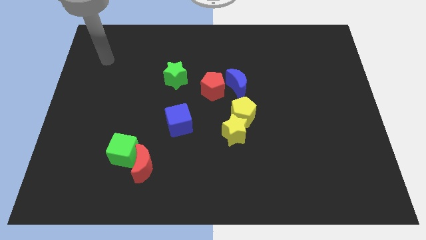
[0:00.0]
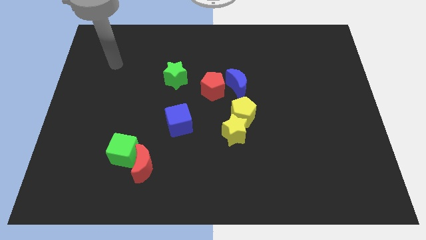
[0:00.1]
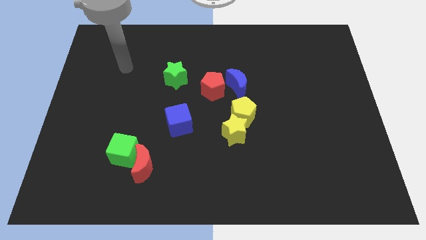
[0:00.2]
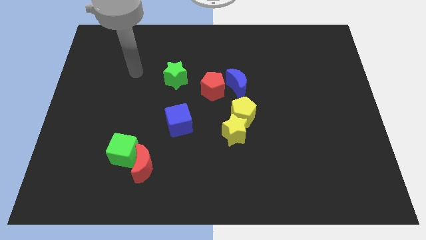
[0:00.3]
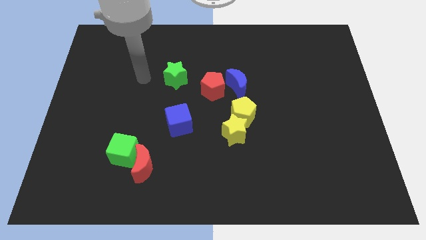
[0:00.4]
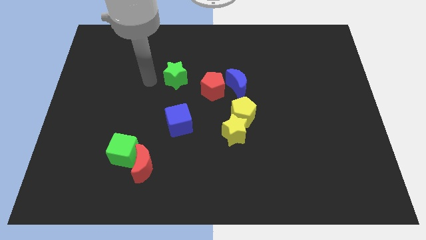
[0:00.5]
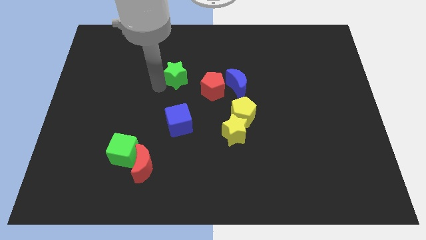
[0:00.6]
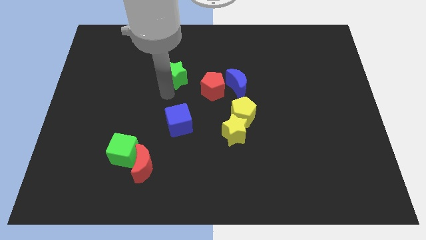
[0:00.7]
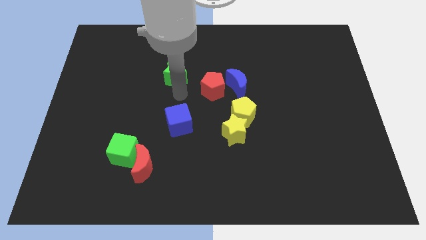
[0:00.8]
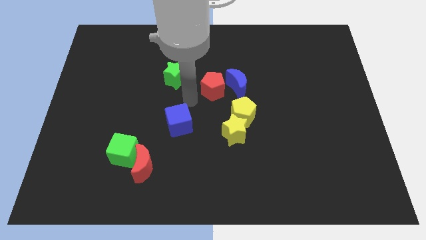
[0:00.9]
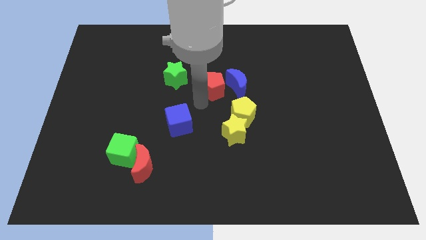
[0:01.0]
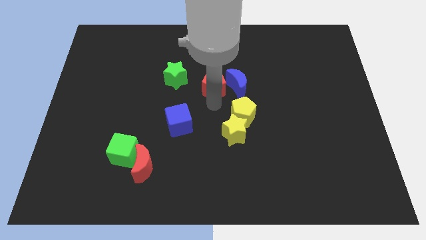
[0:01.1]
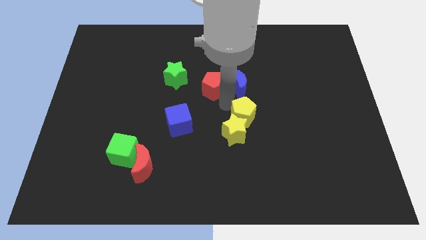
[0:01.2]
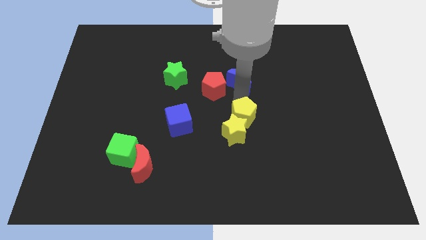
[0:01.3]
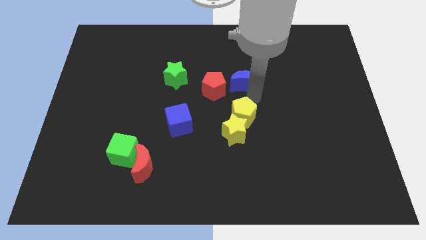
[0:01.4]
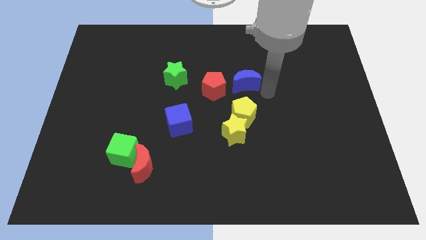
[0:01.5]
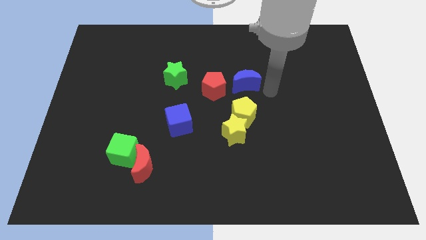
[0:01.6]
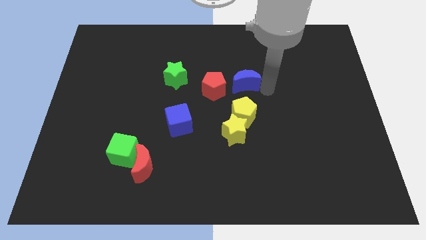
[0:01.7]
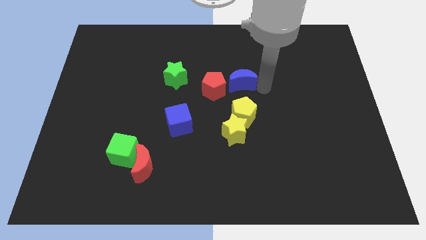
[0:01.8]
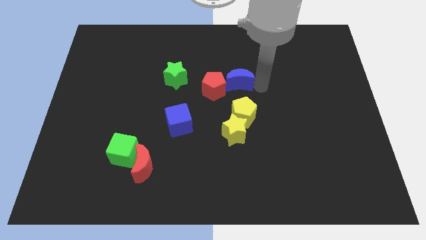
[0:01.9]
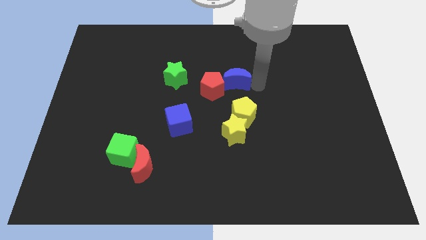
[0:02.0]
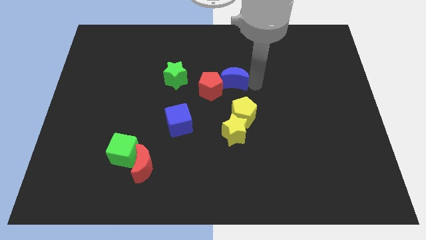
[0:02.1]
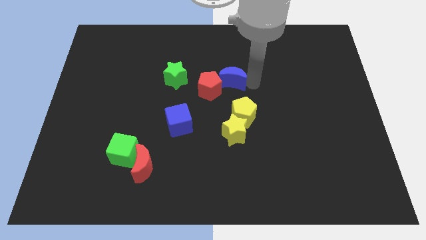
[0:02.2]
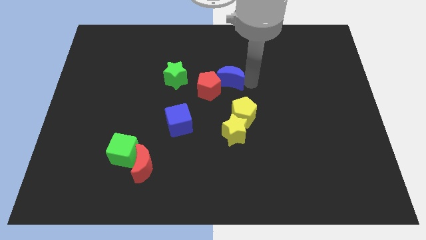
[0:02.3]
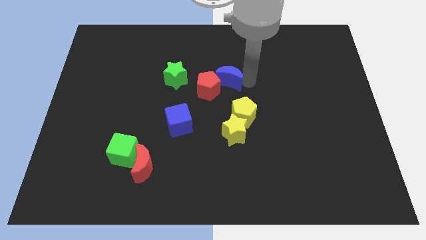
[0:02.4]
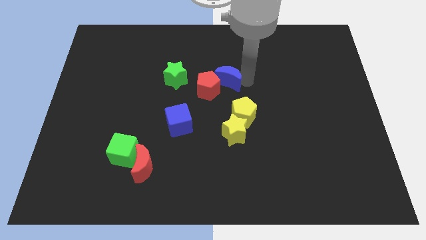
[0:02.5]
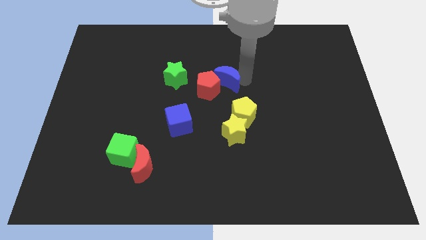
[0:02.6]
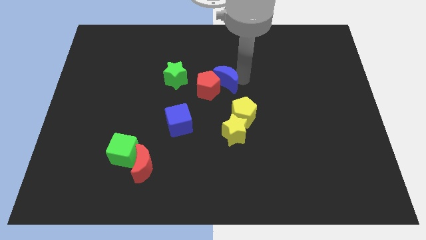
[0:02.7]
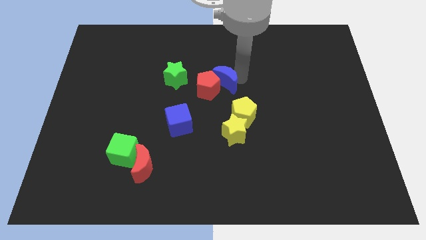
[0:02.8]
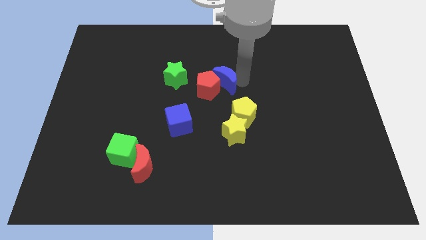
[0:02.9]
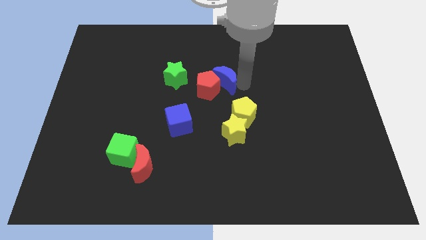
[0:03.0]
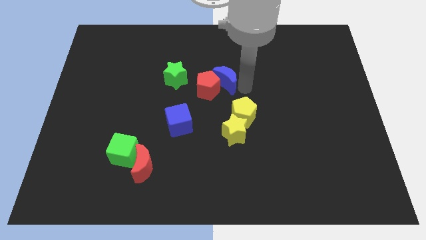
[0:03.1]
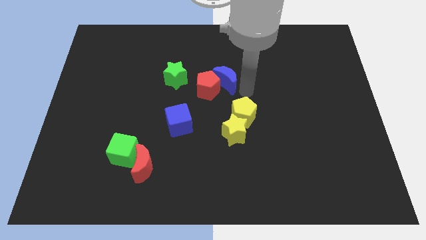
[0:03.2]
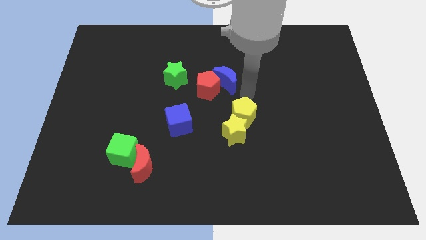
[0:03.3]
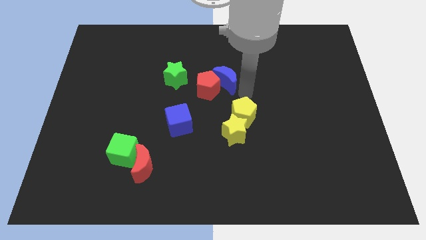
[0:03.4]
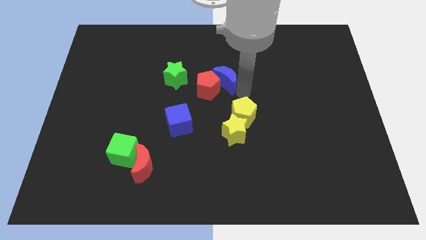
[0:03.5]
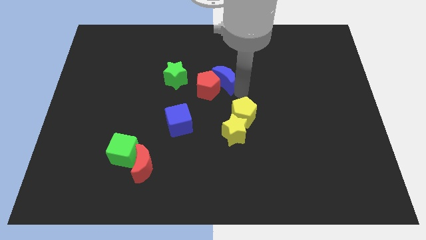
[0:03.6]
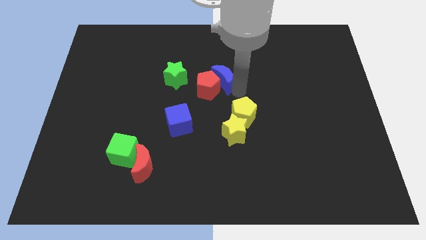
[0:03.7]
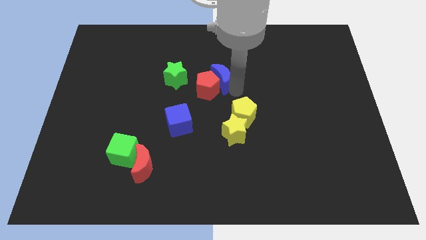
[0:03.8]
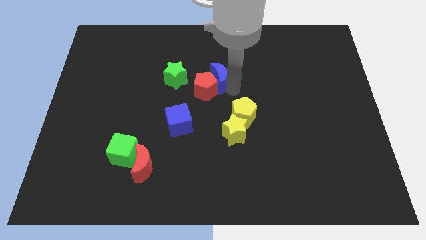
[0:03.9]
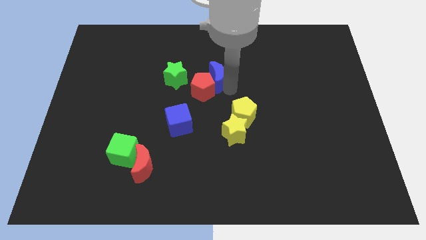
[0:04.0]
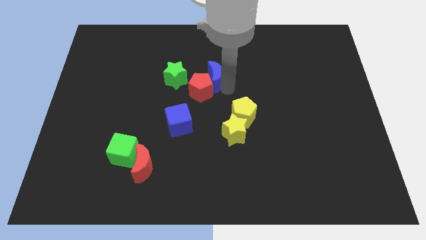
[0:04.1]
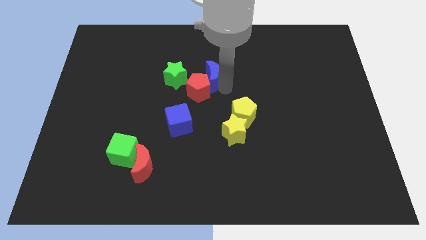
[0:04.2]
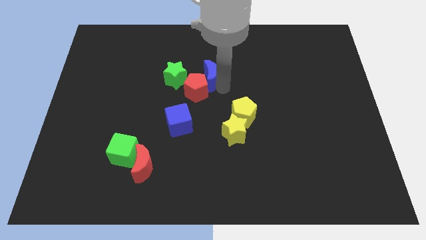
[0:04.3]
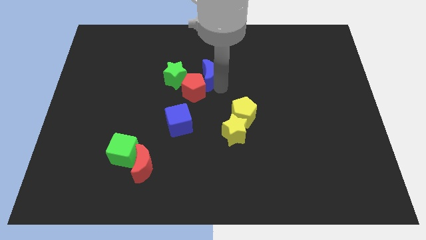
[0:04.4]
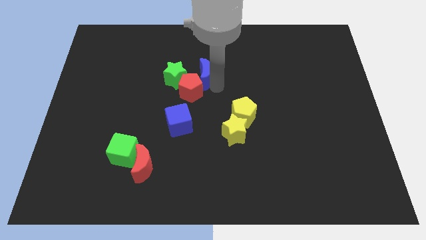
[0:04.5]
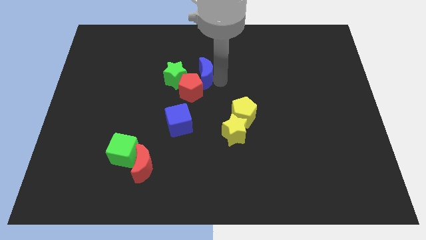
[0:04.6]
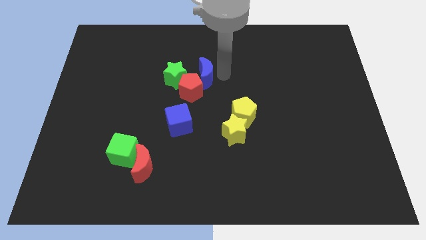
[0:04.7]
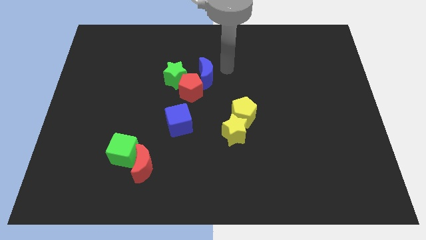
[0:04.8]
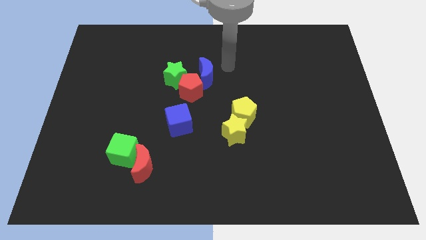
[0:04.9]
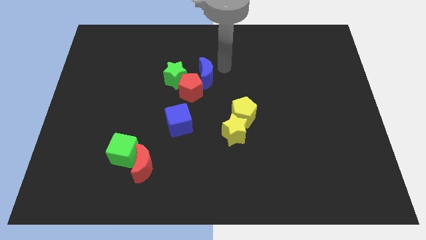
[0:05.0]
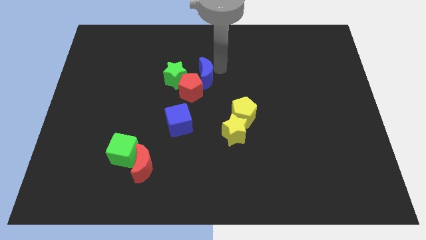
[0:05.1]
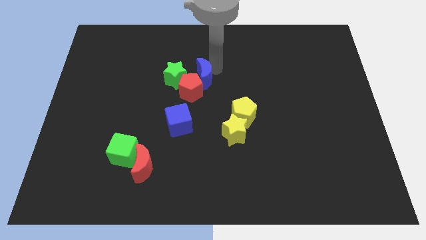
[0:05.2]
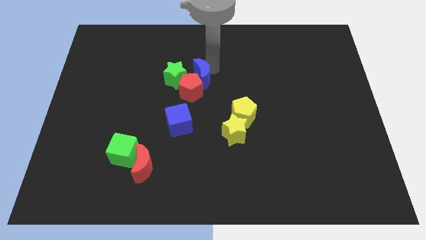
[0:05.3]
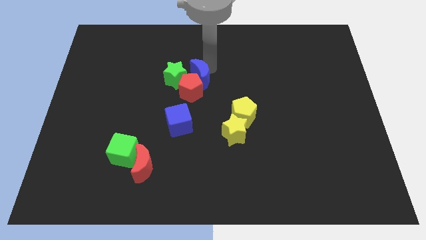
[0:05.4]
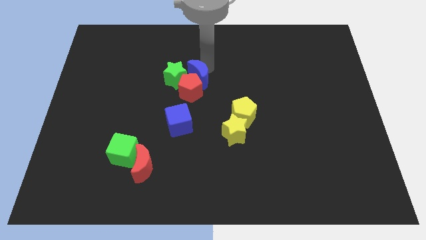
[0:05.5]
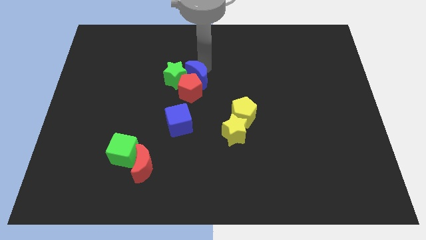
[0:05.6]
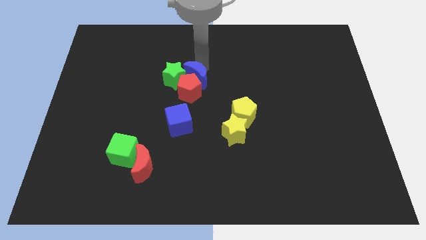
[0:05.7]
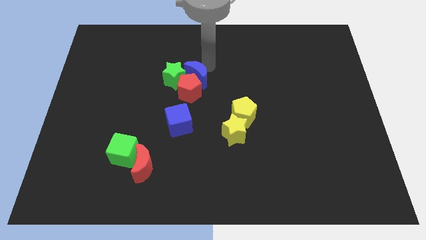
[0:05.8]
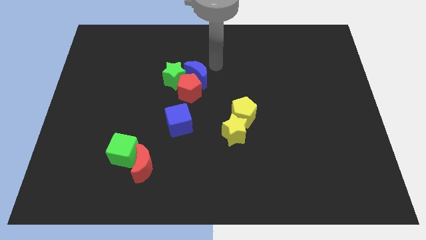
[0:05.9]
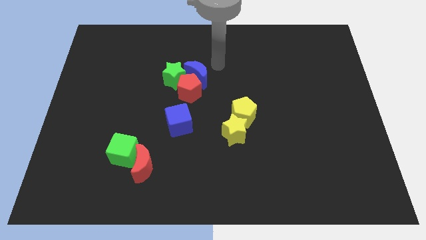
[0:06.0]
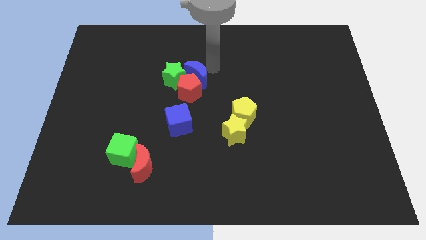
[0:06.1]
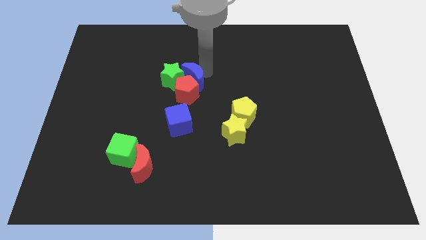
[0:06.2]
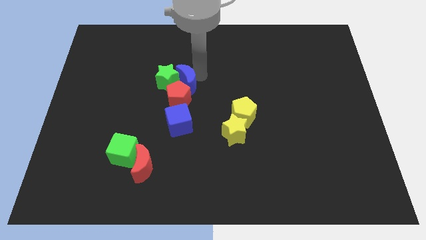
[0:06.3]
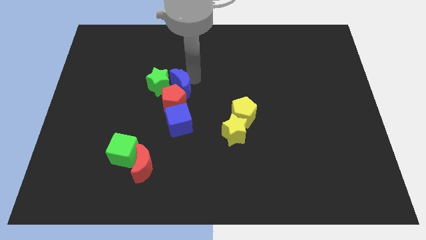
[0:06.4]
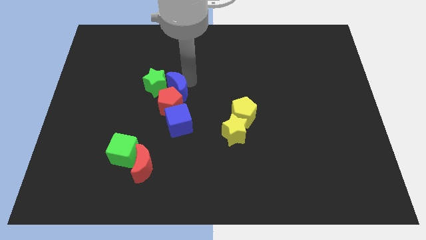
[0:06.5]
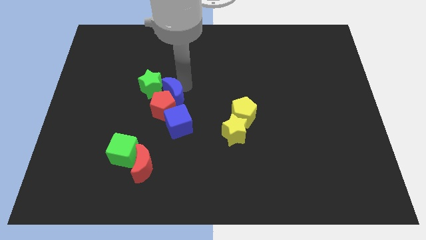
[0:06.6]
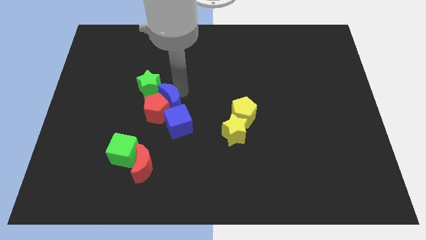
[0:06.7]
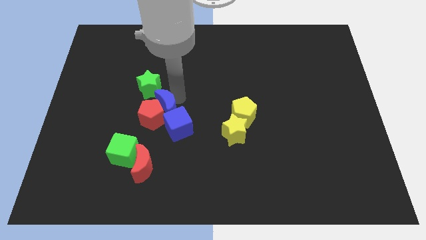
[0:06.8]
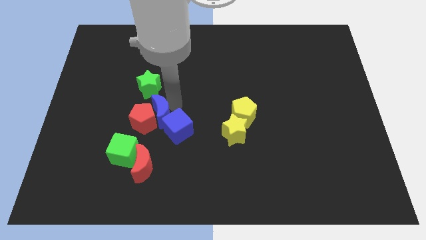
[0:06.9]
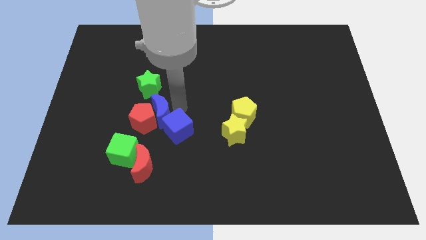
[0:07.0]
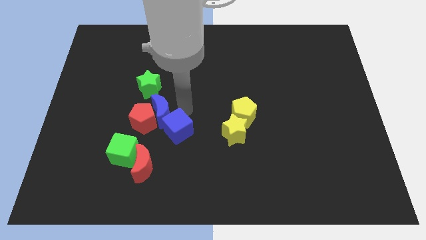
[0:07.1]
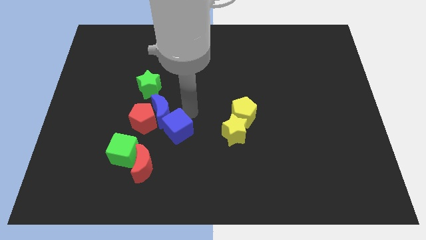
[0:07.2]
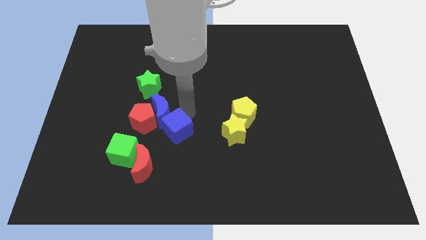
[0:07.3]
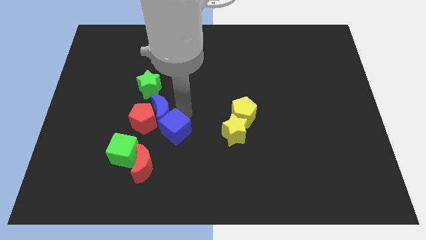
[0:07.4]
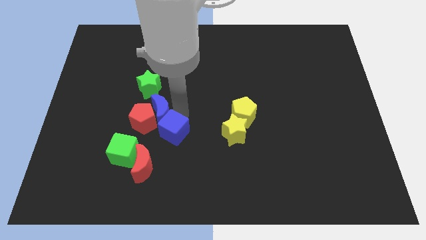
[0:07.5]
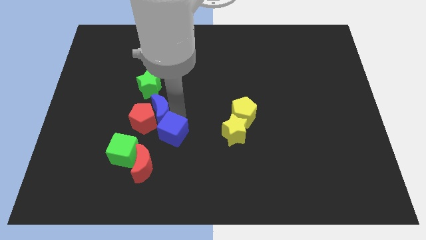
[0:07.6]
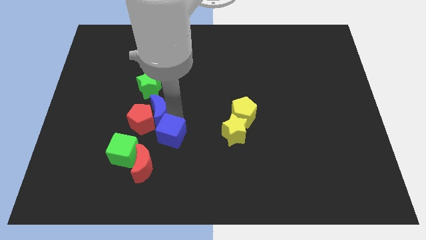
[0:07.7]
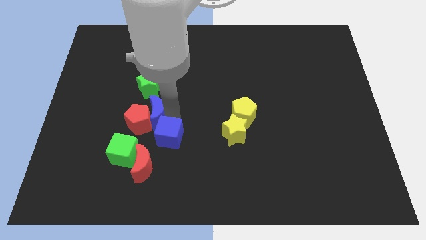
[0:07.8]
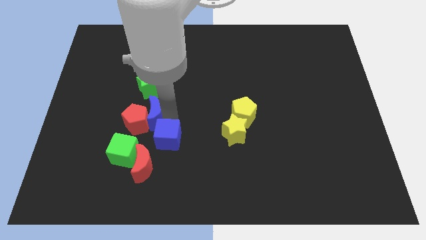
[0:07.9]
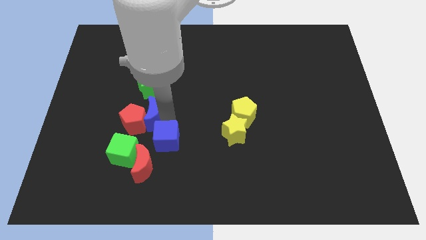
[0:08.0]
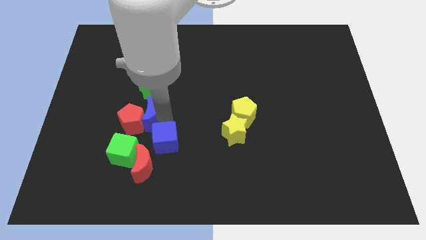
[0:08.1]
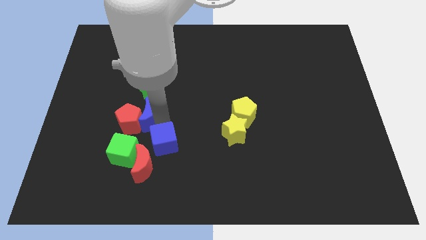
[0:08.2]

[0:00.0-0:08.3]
push the blue moon to the top side of the green cube
